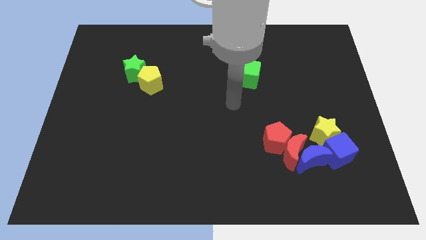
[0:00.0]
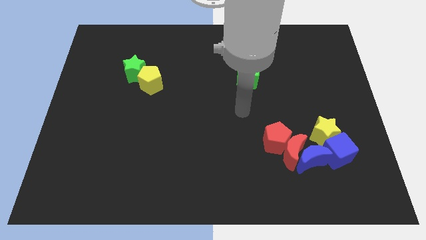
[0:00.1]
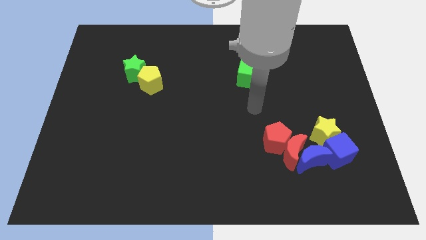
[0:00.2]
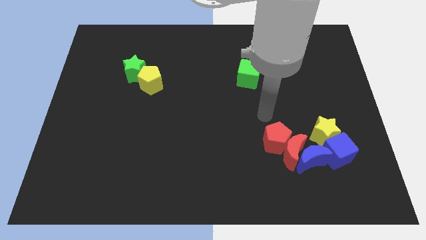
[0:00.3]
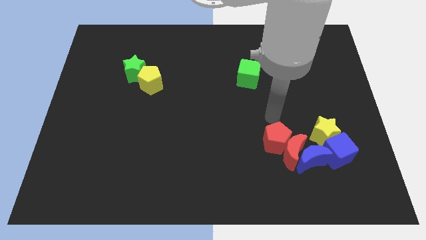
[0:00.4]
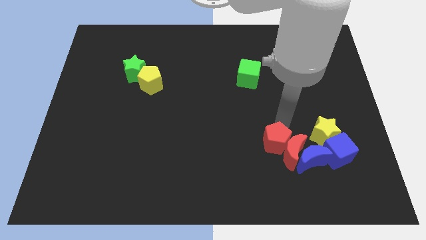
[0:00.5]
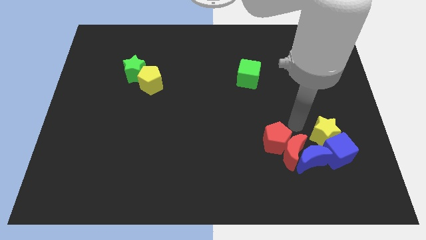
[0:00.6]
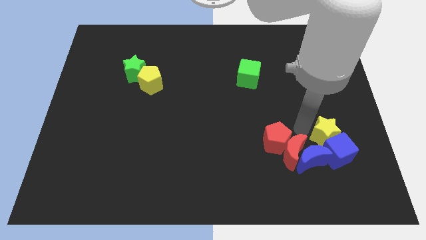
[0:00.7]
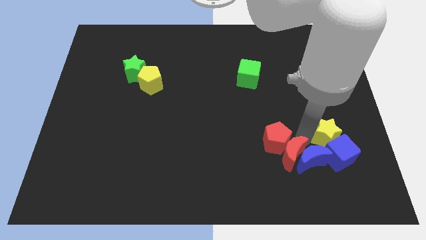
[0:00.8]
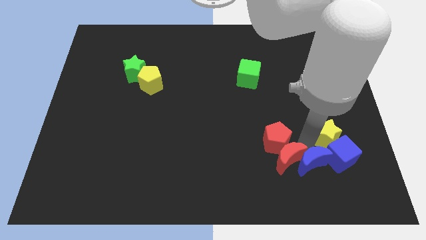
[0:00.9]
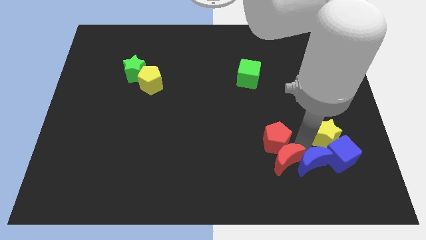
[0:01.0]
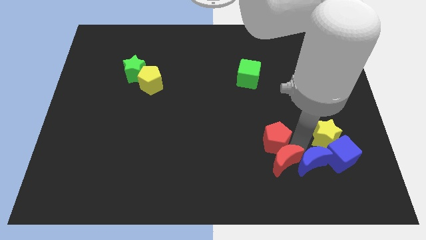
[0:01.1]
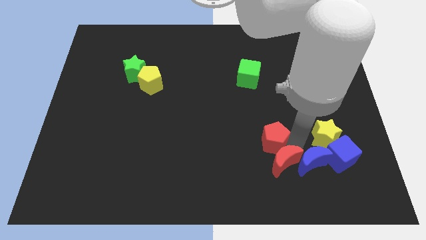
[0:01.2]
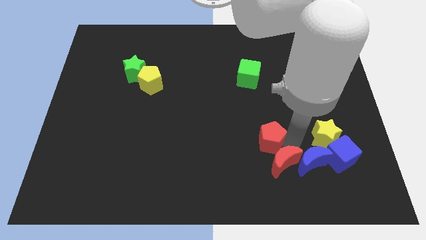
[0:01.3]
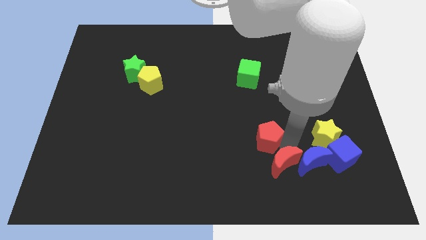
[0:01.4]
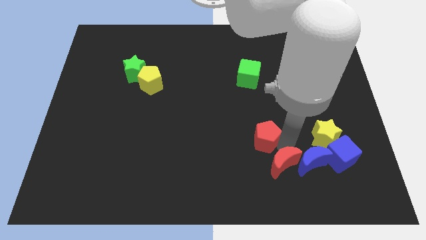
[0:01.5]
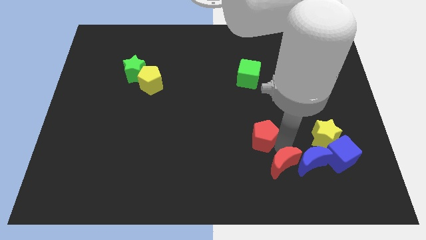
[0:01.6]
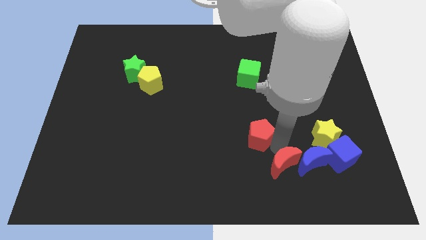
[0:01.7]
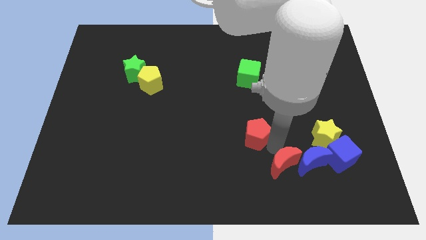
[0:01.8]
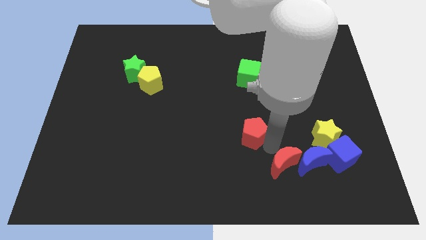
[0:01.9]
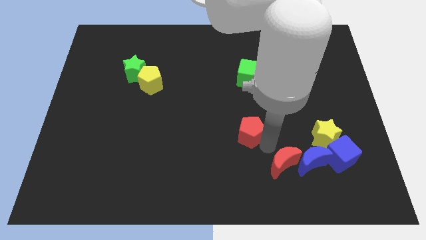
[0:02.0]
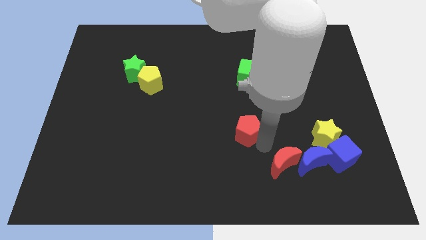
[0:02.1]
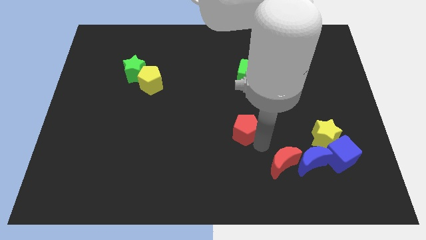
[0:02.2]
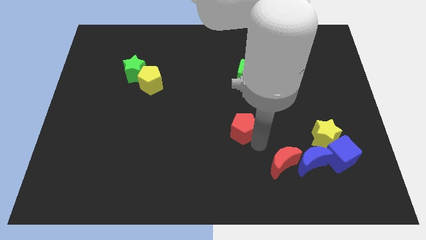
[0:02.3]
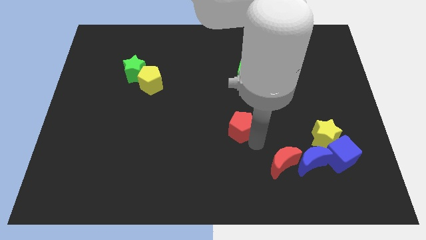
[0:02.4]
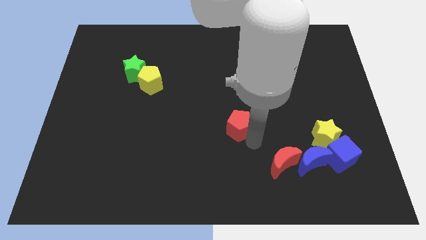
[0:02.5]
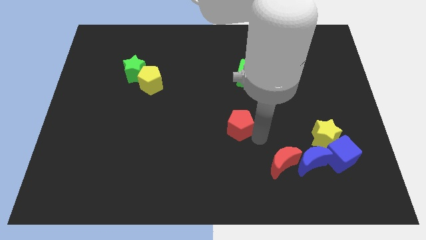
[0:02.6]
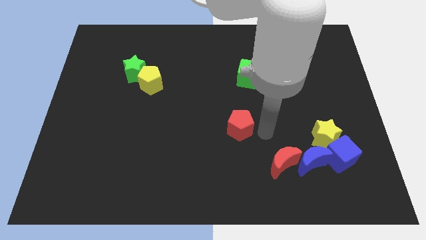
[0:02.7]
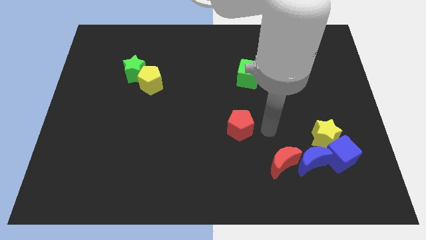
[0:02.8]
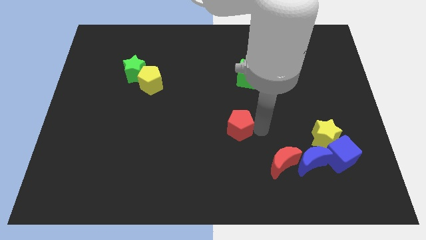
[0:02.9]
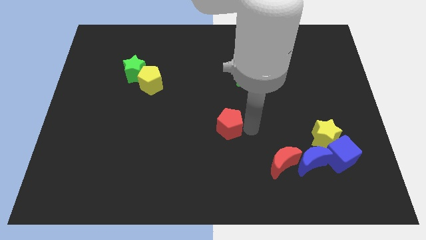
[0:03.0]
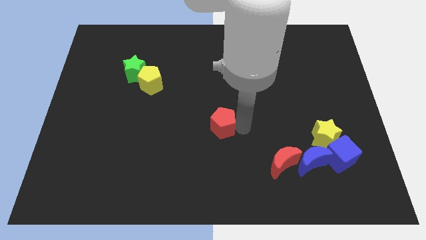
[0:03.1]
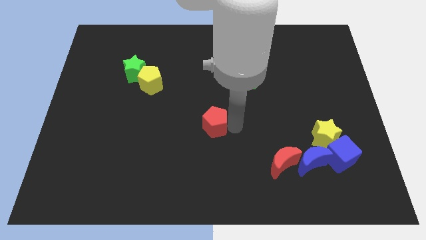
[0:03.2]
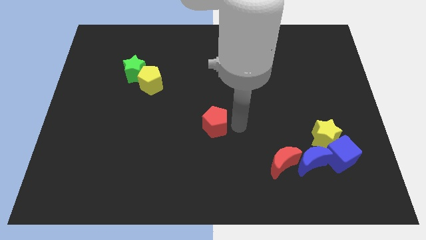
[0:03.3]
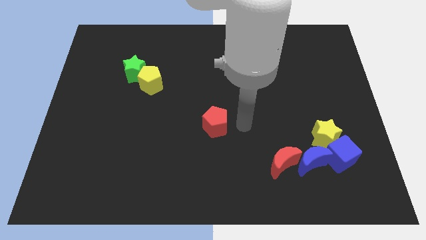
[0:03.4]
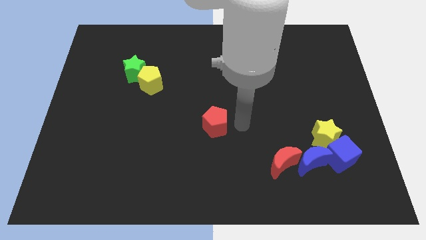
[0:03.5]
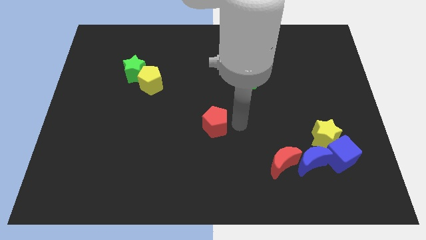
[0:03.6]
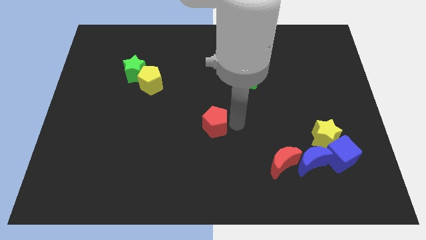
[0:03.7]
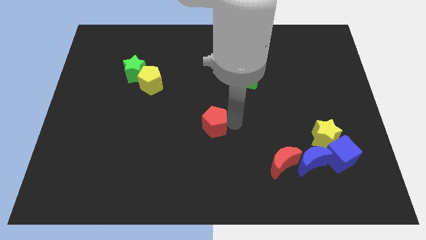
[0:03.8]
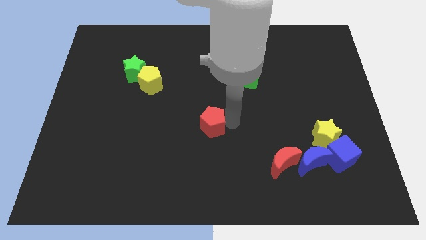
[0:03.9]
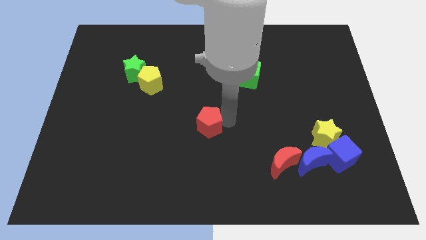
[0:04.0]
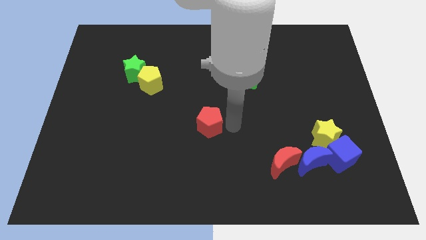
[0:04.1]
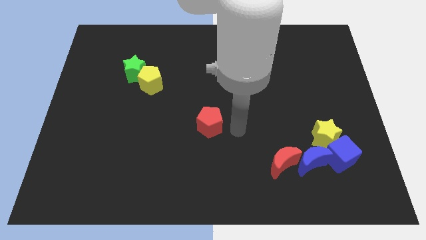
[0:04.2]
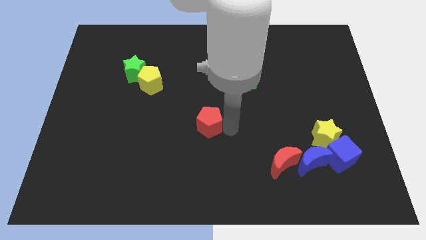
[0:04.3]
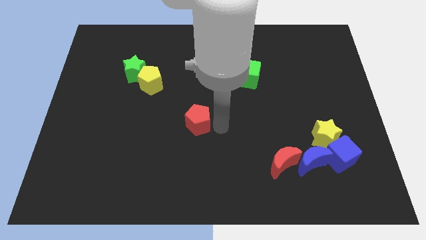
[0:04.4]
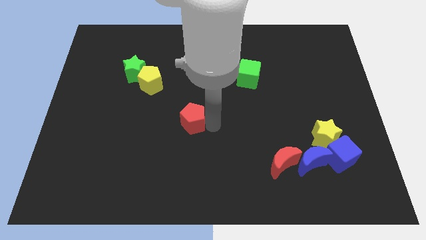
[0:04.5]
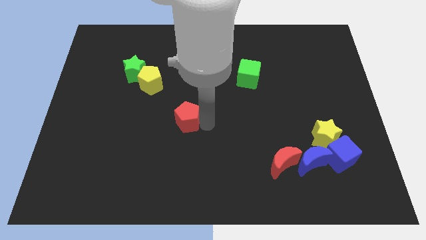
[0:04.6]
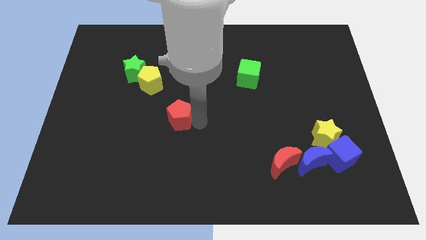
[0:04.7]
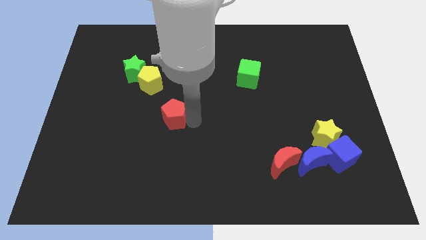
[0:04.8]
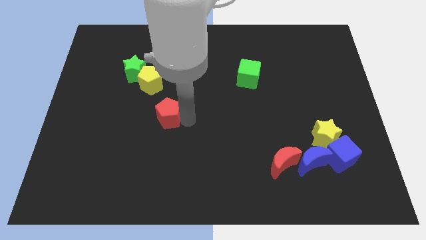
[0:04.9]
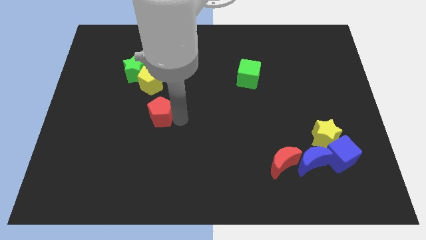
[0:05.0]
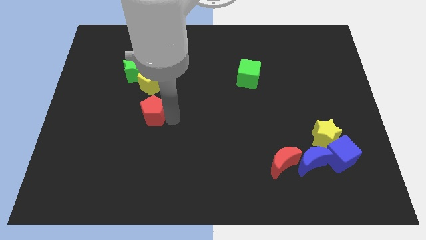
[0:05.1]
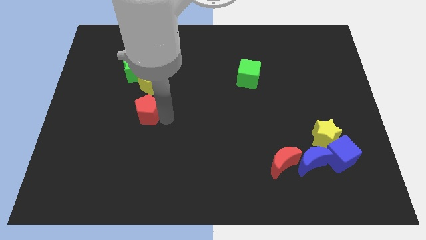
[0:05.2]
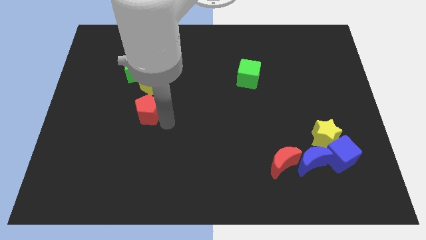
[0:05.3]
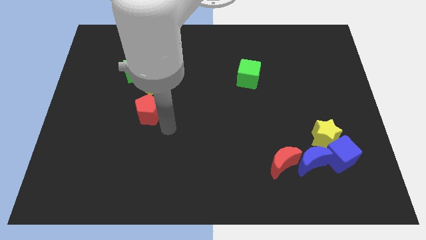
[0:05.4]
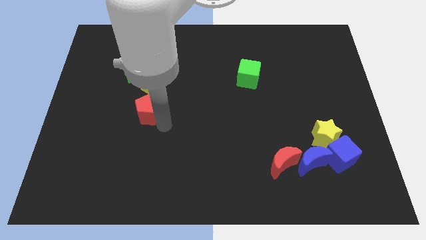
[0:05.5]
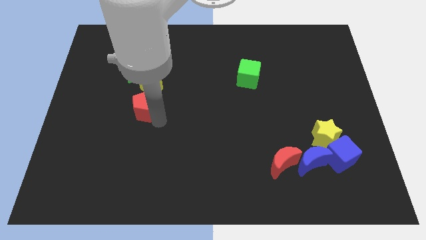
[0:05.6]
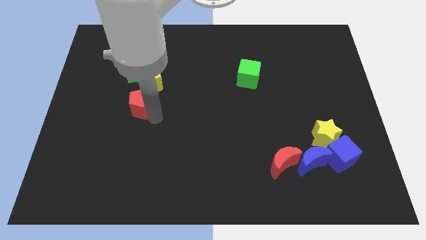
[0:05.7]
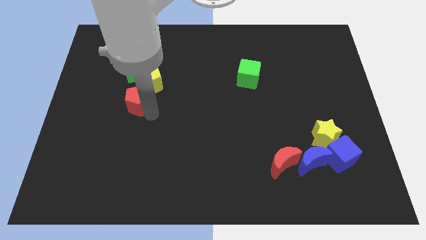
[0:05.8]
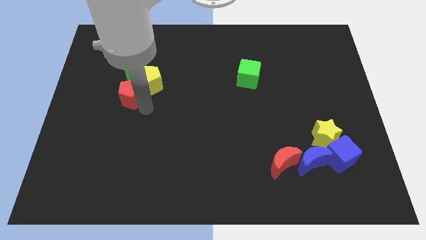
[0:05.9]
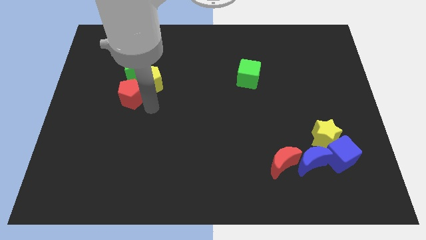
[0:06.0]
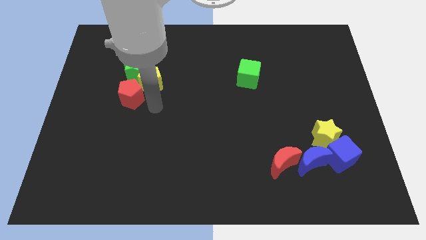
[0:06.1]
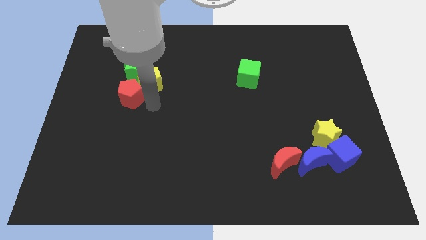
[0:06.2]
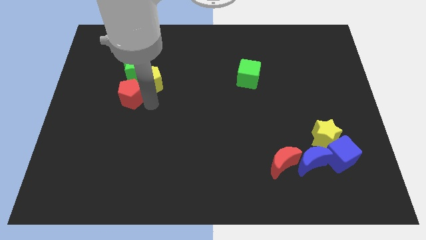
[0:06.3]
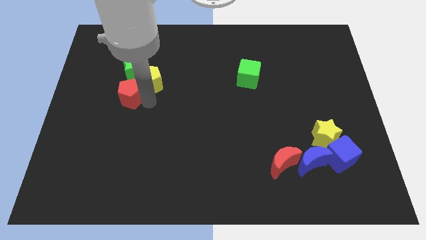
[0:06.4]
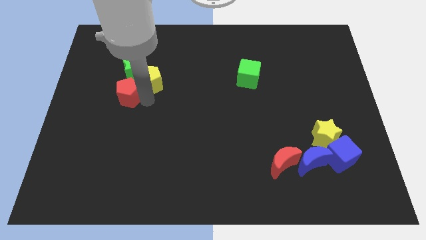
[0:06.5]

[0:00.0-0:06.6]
put the red pentagon to the bottom left of the green star

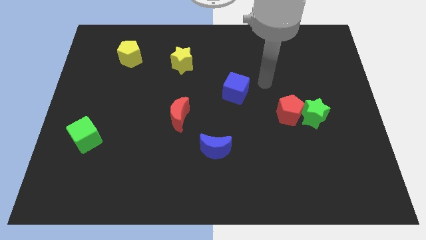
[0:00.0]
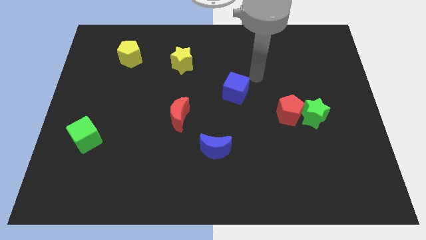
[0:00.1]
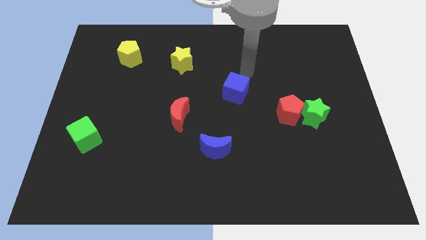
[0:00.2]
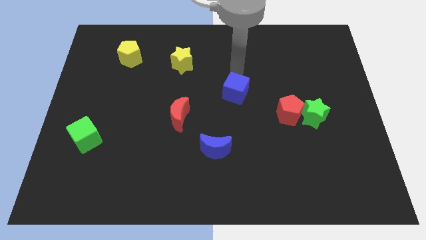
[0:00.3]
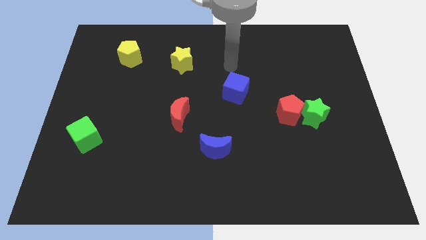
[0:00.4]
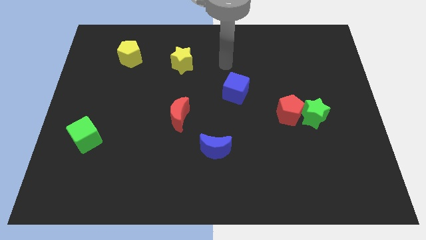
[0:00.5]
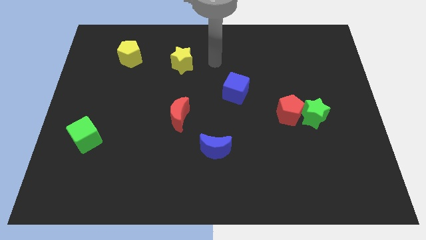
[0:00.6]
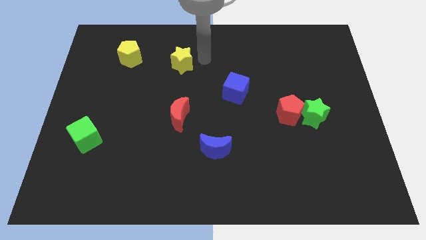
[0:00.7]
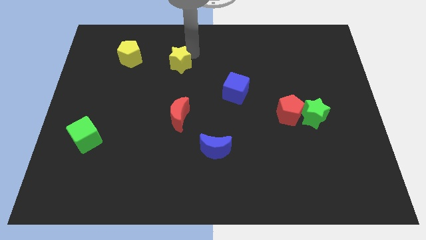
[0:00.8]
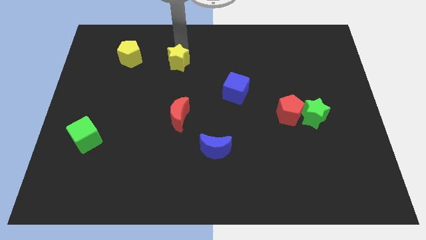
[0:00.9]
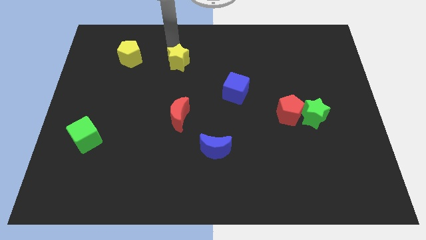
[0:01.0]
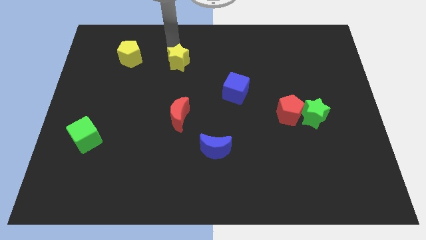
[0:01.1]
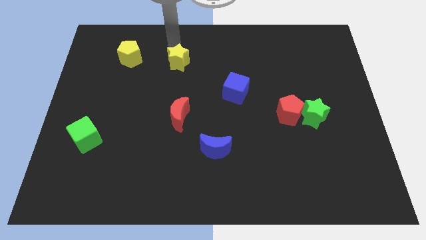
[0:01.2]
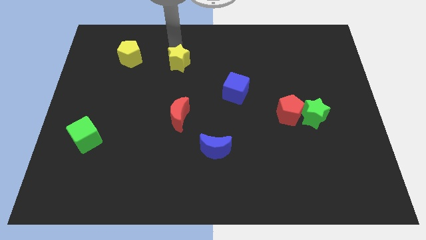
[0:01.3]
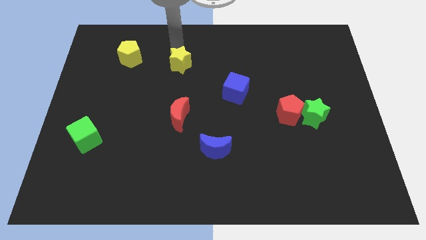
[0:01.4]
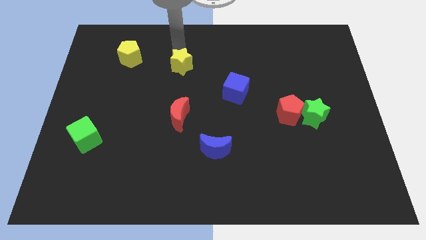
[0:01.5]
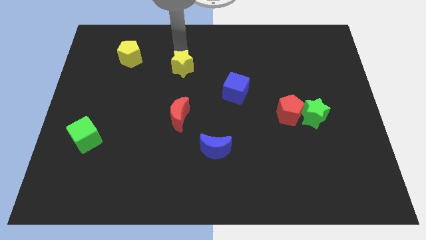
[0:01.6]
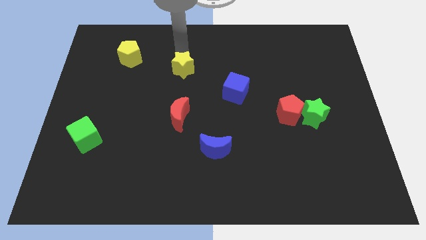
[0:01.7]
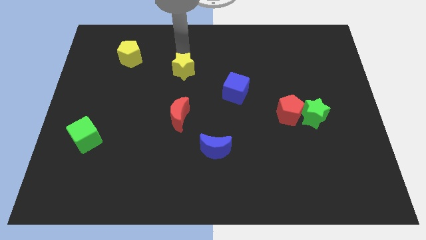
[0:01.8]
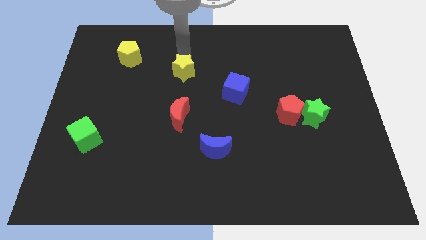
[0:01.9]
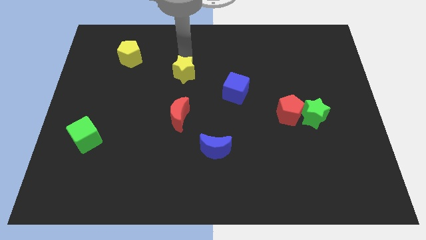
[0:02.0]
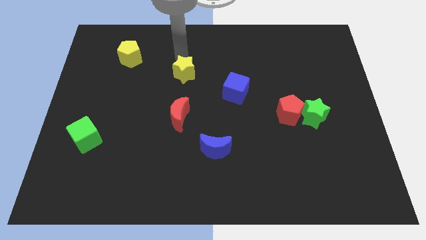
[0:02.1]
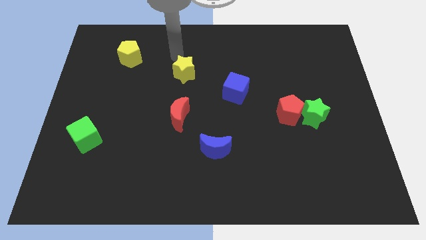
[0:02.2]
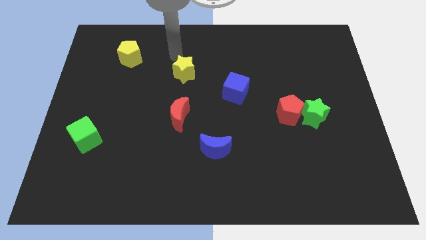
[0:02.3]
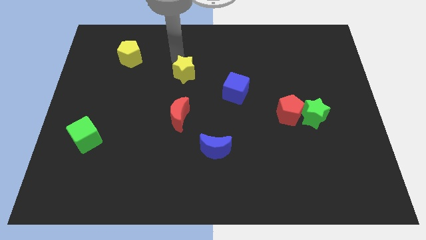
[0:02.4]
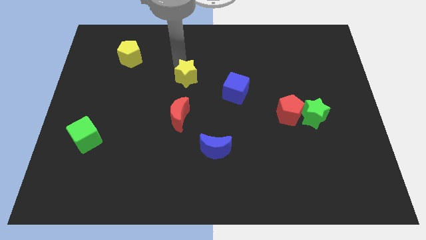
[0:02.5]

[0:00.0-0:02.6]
put the yellow star to the left side of the blue cube
